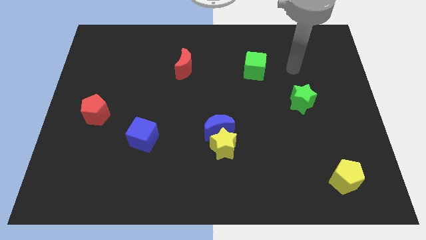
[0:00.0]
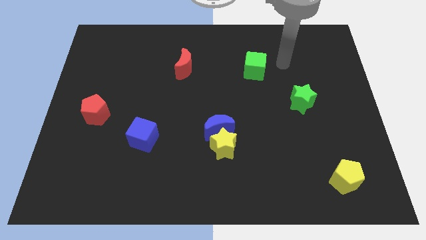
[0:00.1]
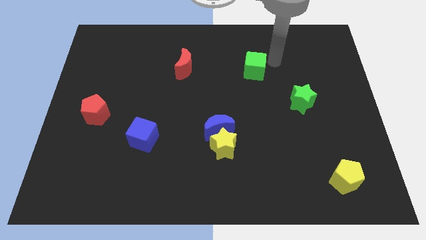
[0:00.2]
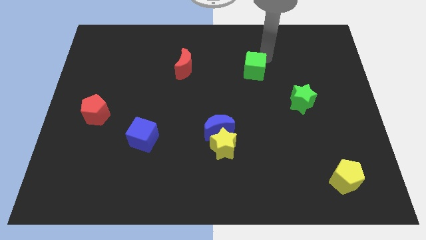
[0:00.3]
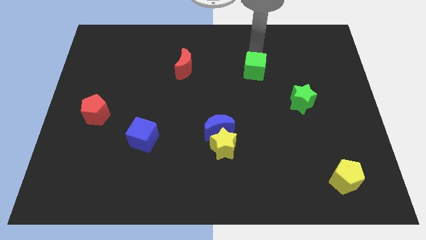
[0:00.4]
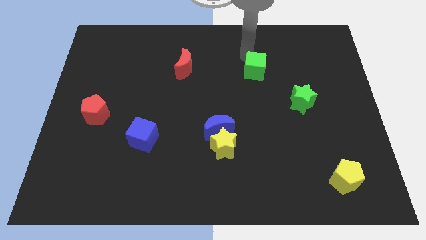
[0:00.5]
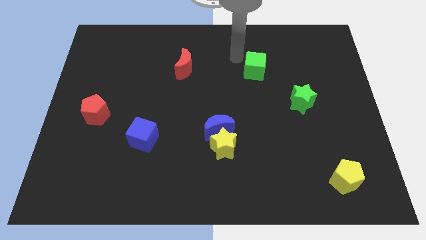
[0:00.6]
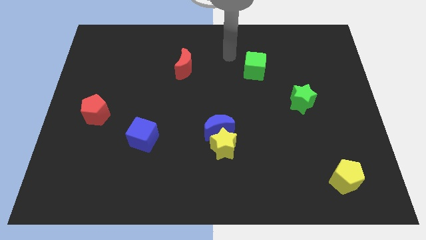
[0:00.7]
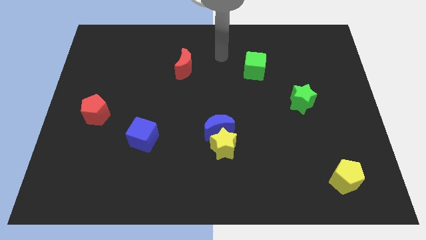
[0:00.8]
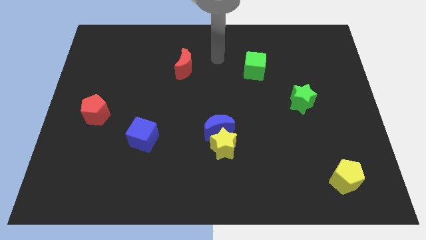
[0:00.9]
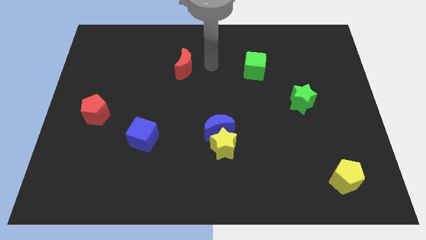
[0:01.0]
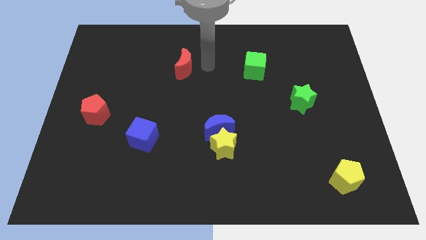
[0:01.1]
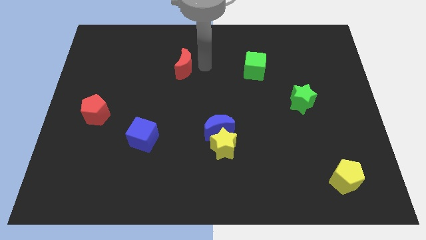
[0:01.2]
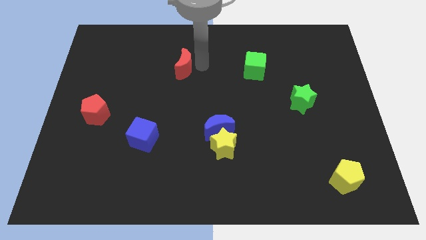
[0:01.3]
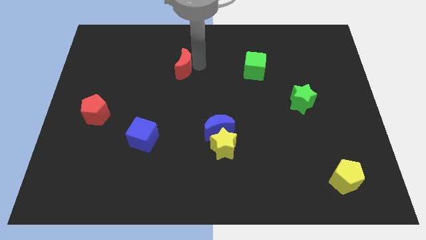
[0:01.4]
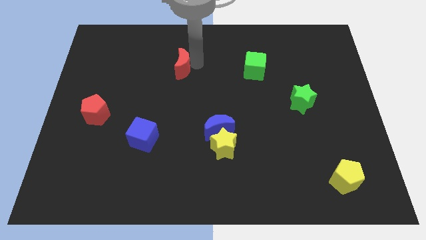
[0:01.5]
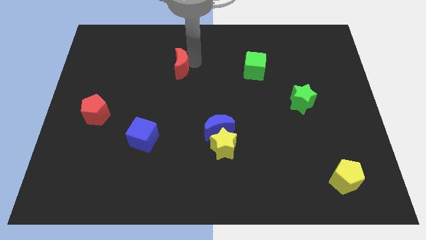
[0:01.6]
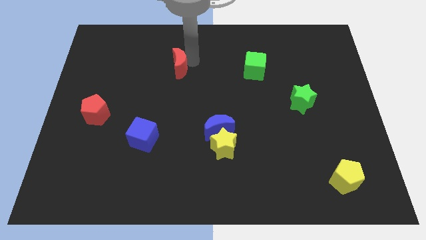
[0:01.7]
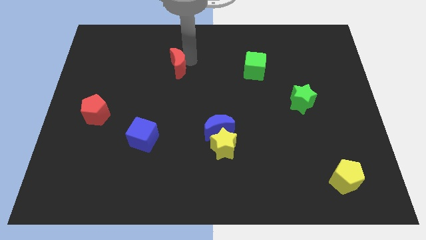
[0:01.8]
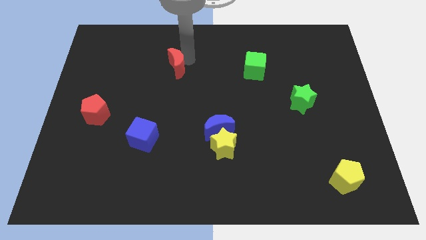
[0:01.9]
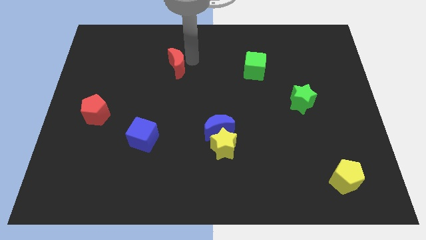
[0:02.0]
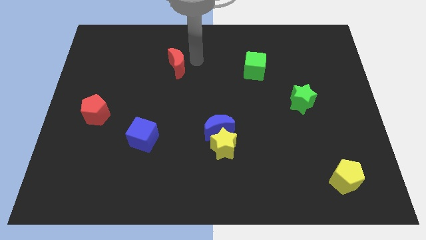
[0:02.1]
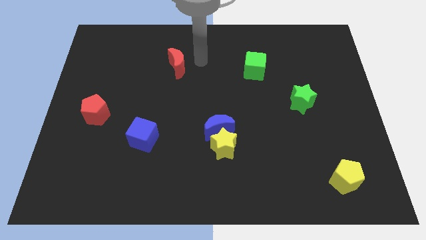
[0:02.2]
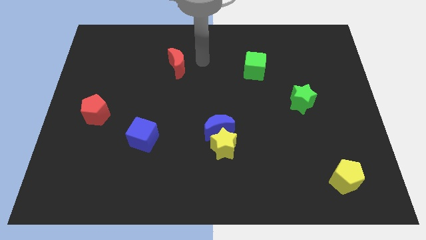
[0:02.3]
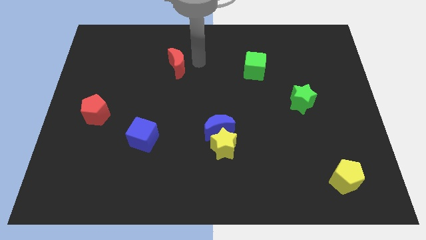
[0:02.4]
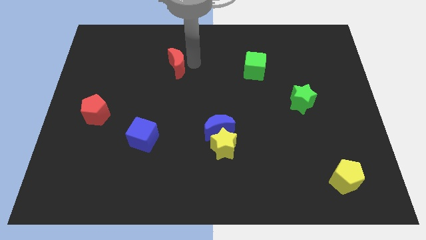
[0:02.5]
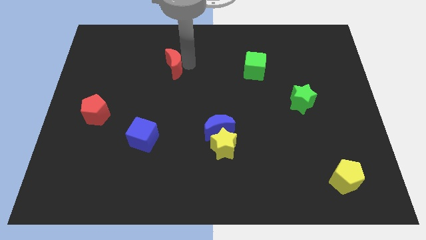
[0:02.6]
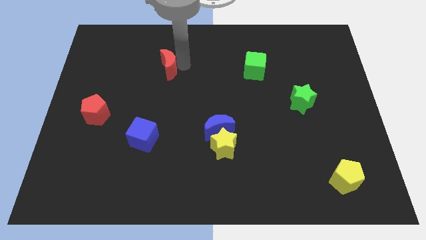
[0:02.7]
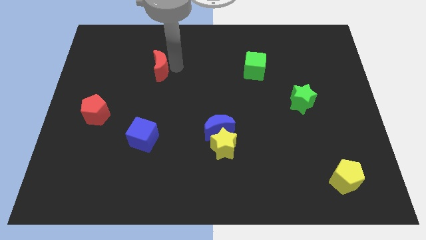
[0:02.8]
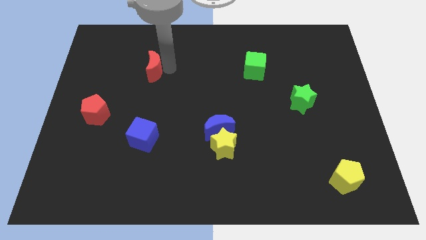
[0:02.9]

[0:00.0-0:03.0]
push the red moon to the left a little bit

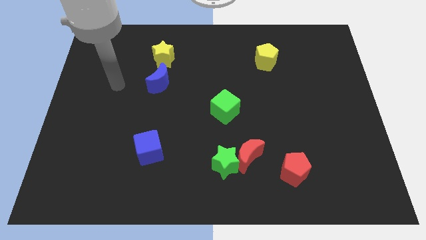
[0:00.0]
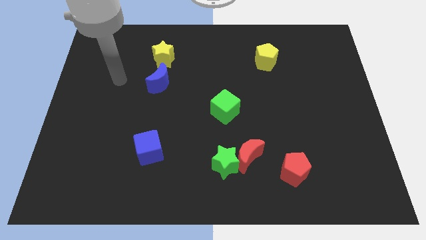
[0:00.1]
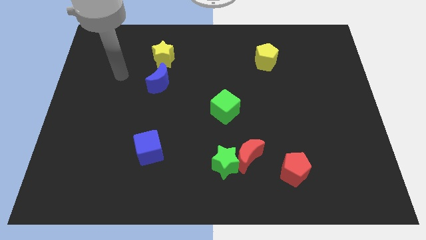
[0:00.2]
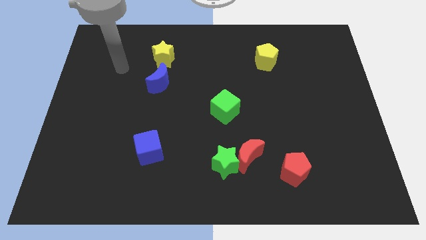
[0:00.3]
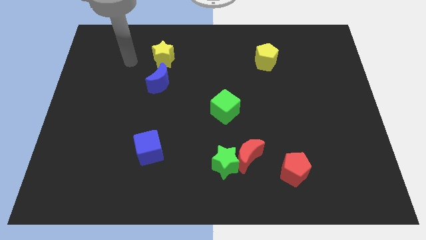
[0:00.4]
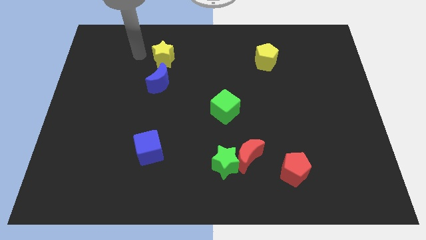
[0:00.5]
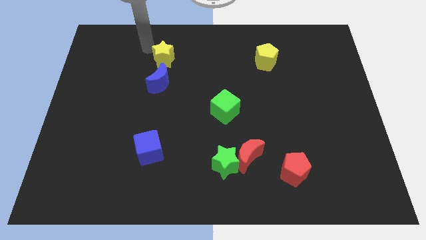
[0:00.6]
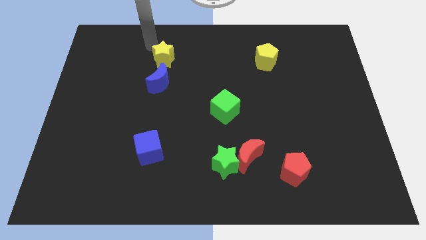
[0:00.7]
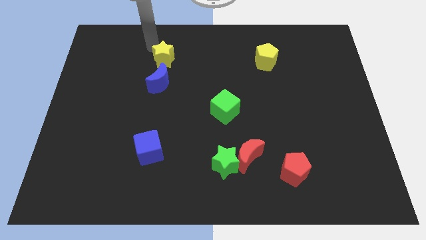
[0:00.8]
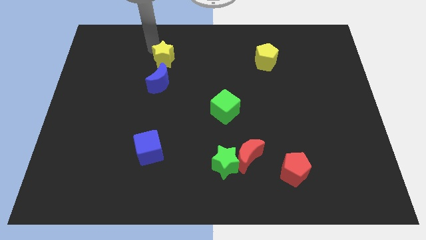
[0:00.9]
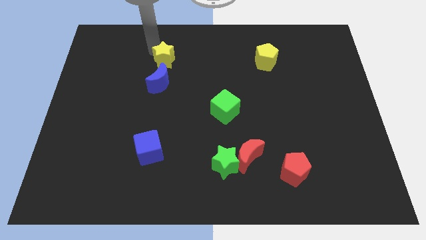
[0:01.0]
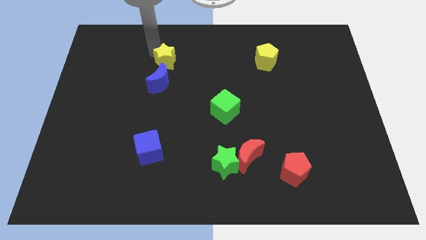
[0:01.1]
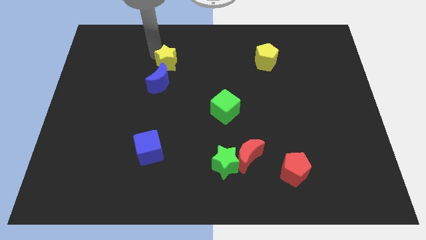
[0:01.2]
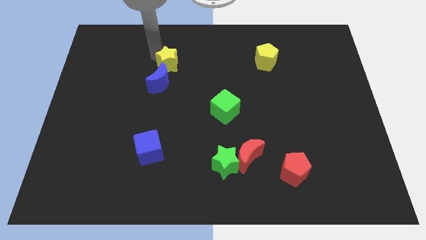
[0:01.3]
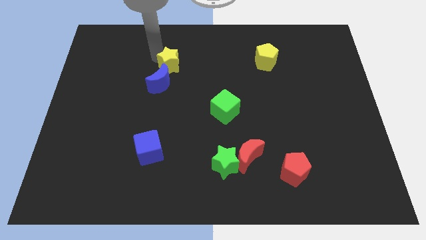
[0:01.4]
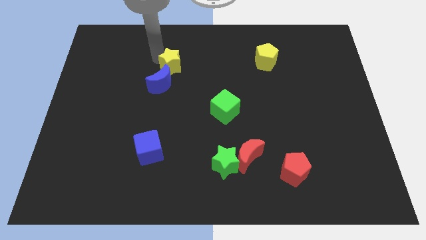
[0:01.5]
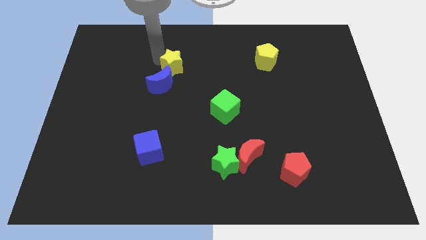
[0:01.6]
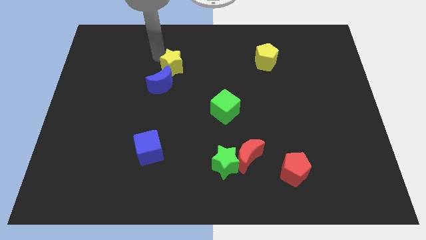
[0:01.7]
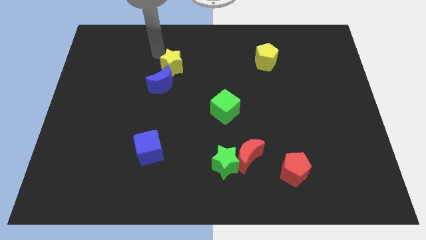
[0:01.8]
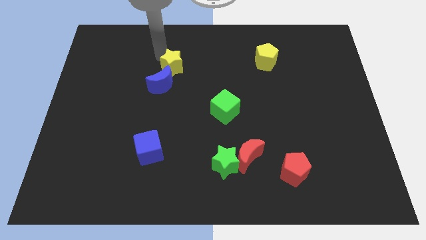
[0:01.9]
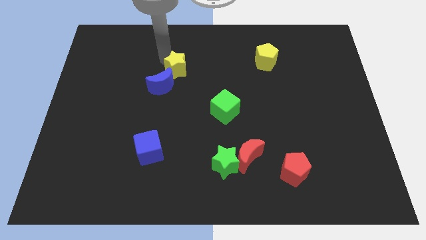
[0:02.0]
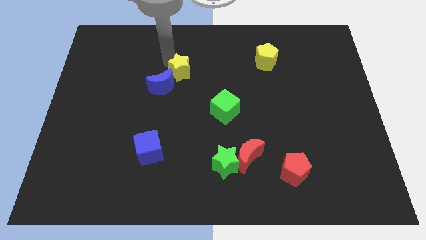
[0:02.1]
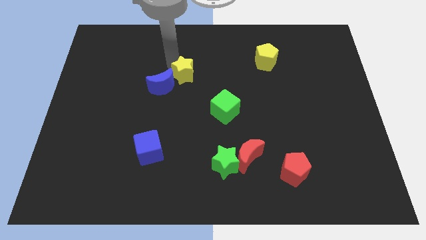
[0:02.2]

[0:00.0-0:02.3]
slightly push the yellow star downwards and right diagonally

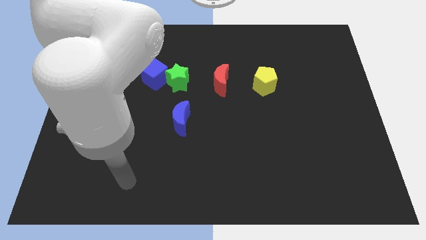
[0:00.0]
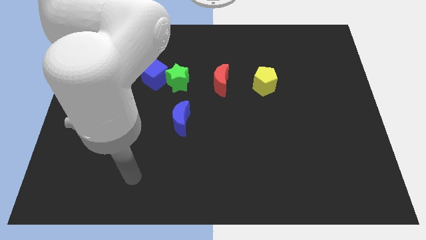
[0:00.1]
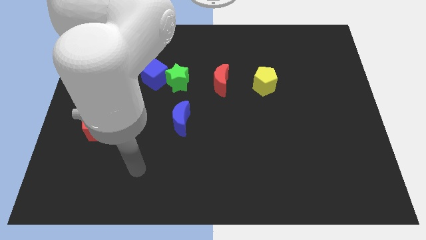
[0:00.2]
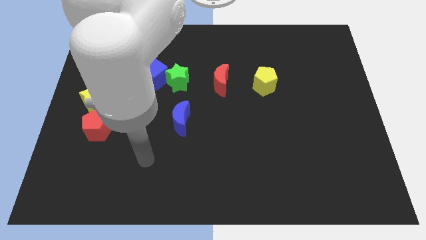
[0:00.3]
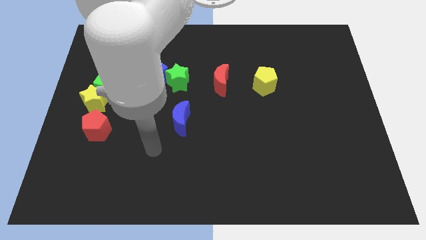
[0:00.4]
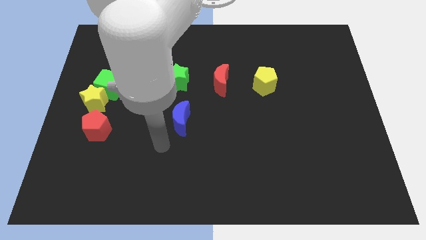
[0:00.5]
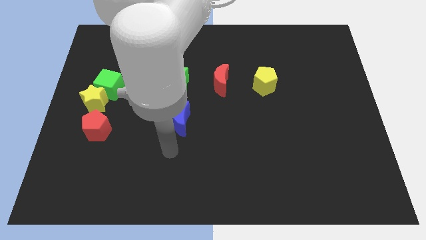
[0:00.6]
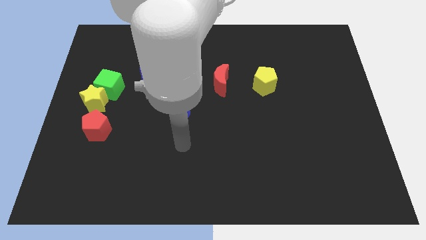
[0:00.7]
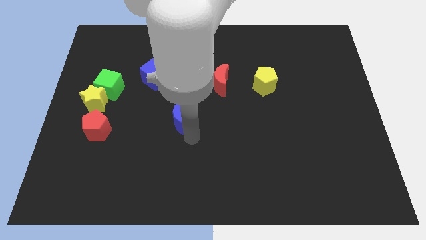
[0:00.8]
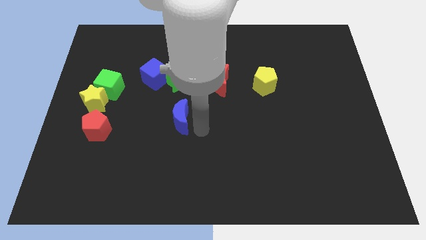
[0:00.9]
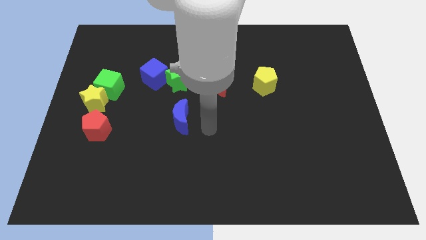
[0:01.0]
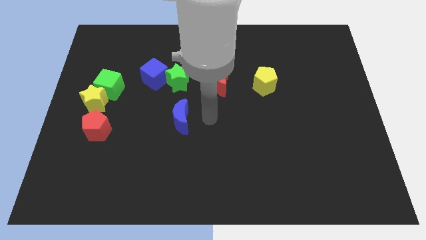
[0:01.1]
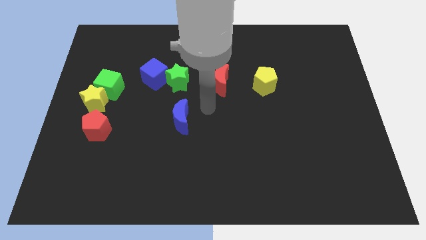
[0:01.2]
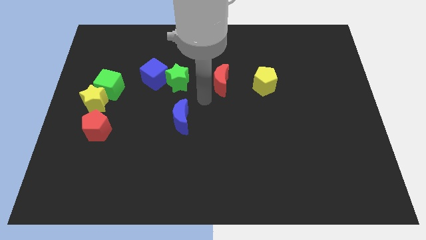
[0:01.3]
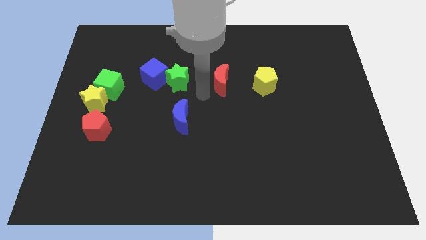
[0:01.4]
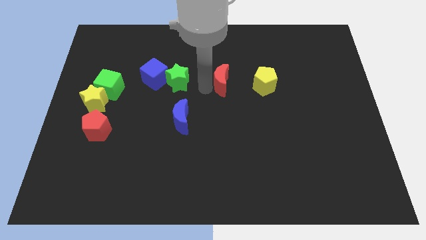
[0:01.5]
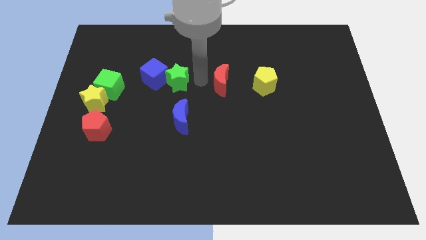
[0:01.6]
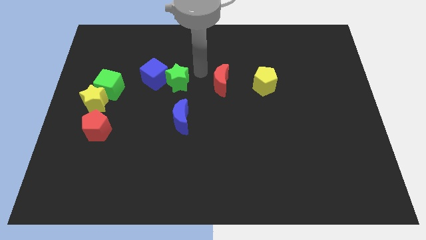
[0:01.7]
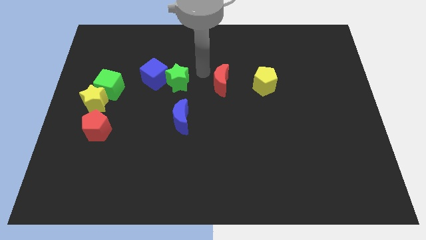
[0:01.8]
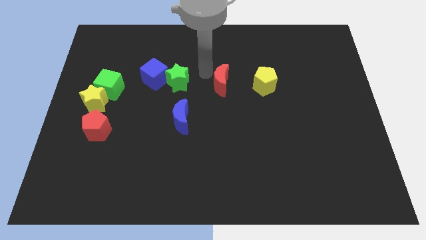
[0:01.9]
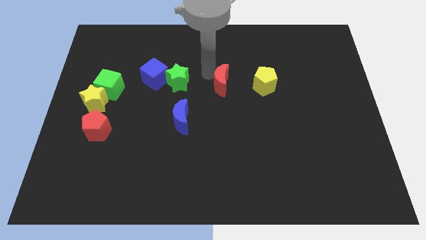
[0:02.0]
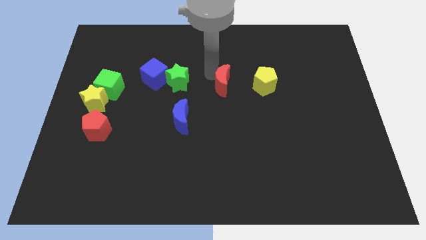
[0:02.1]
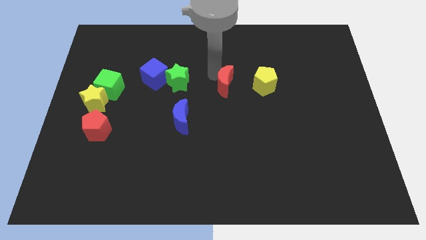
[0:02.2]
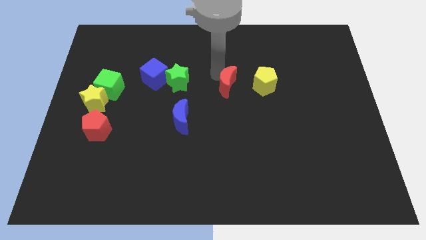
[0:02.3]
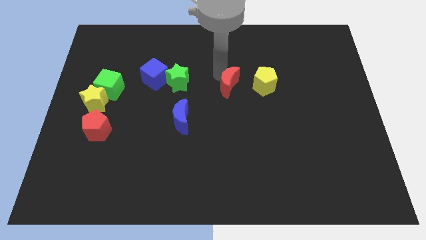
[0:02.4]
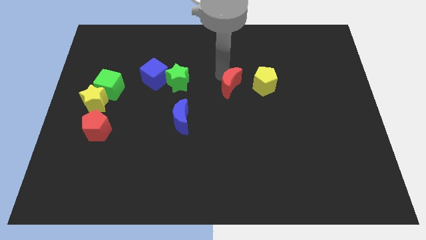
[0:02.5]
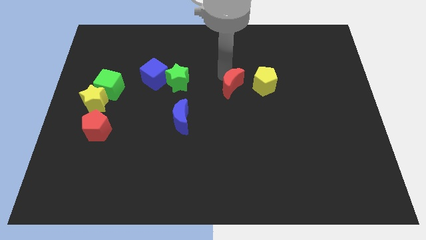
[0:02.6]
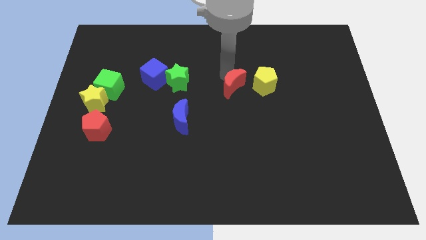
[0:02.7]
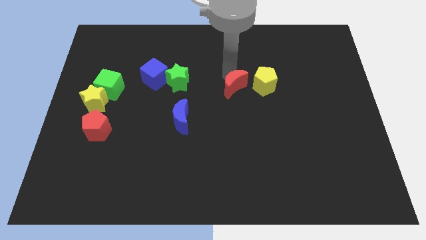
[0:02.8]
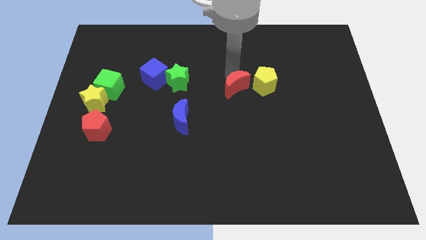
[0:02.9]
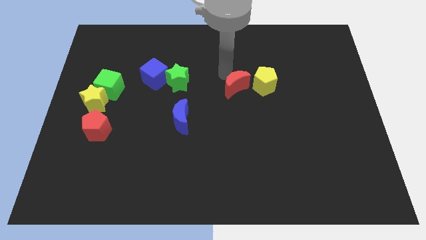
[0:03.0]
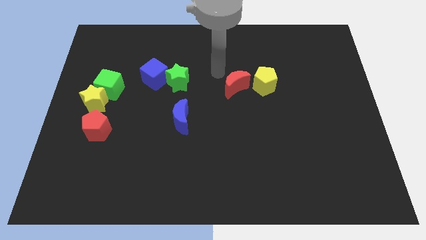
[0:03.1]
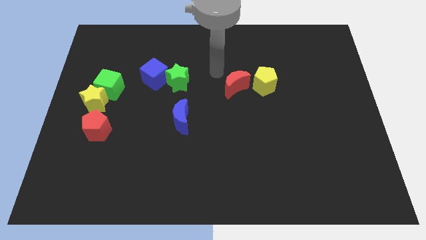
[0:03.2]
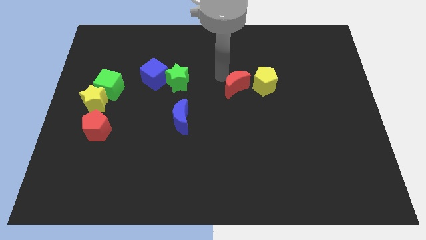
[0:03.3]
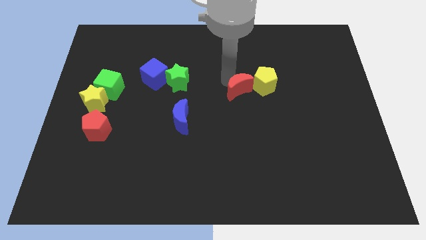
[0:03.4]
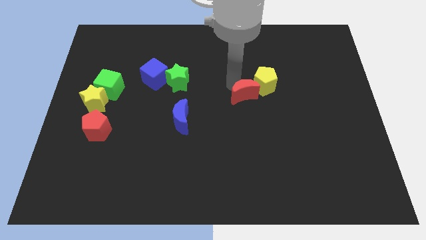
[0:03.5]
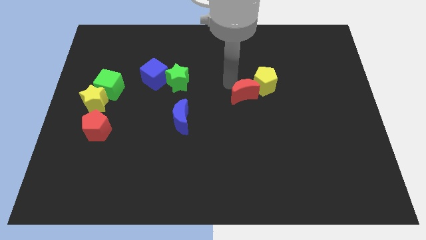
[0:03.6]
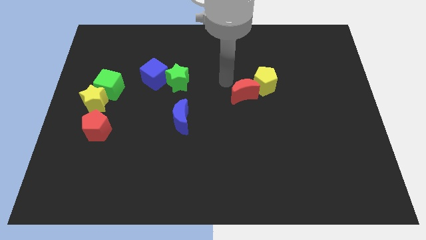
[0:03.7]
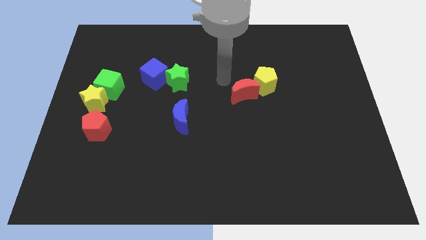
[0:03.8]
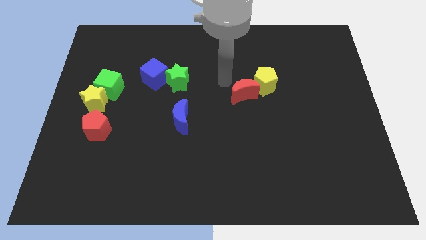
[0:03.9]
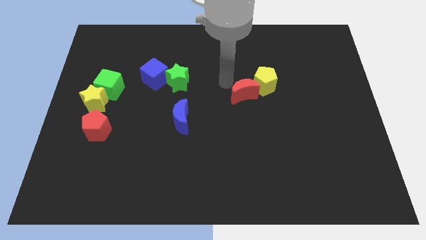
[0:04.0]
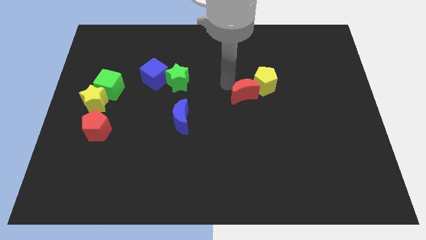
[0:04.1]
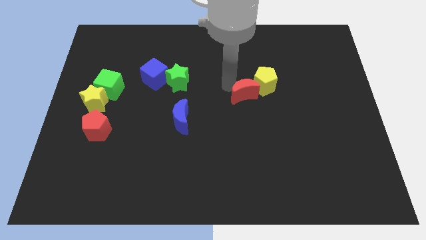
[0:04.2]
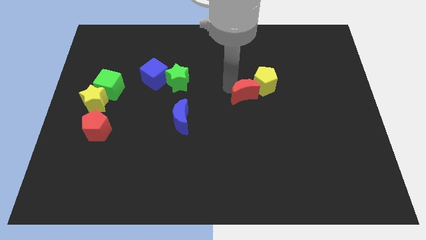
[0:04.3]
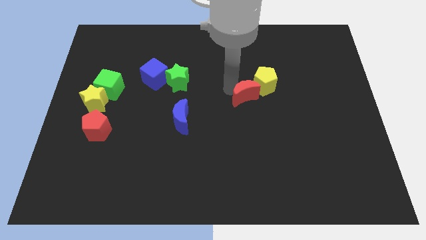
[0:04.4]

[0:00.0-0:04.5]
slightly move the red moon downwards and to the right
